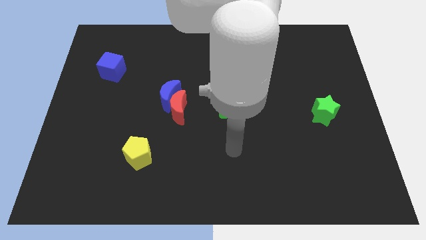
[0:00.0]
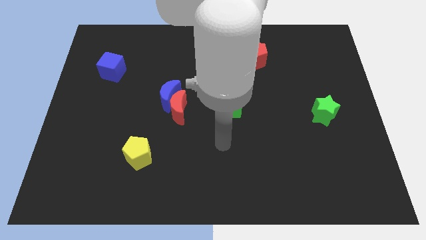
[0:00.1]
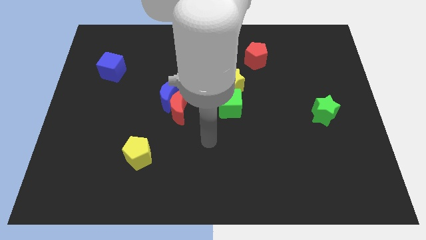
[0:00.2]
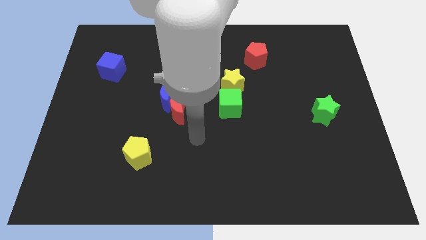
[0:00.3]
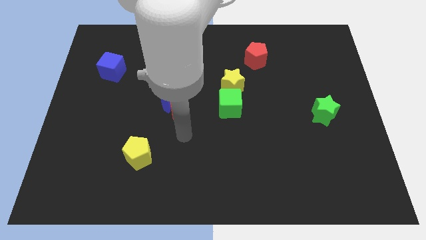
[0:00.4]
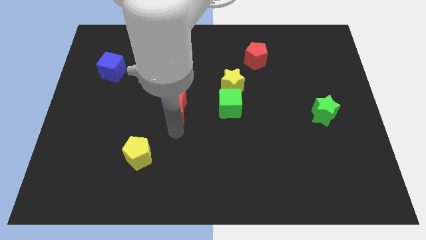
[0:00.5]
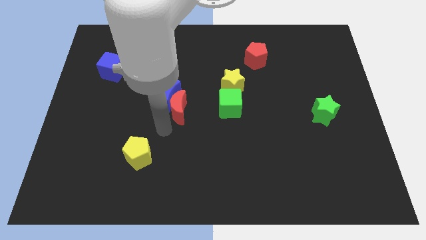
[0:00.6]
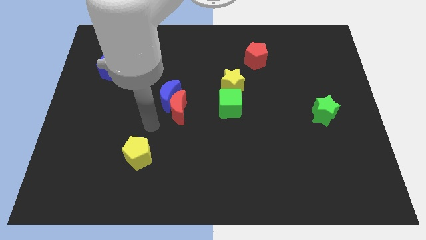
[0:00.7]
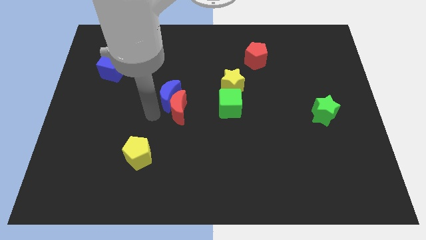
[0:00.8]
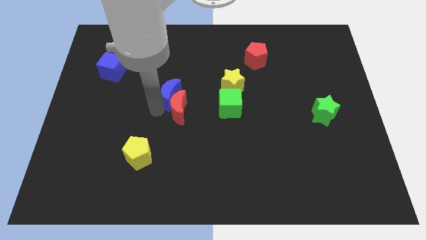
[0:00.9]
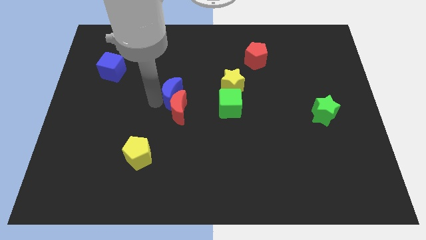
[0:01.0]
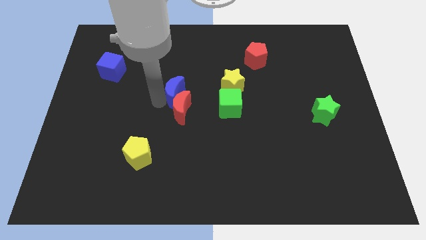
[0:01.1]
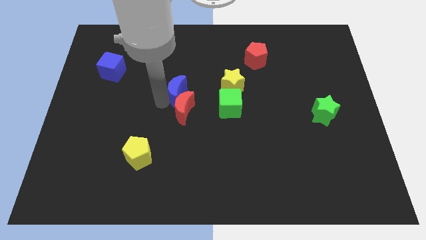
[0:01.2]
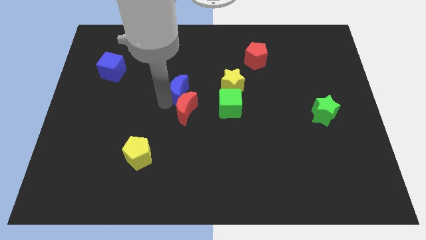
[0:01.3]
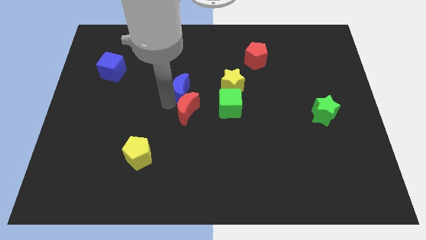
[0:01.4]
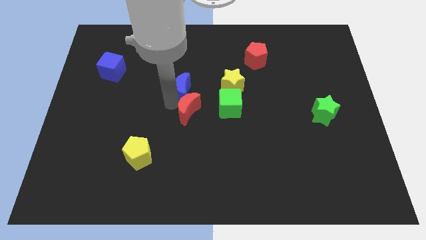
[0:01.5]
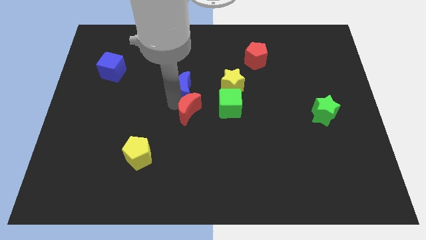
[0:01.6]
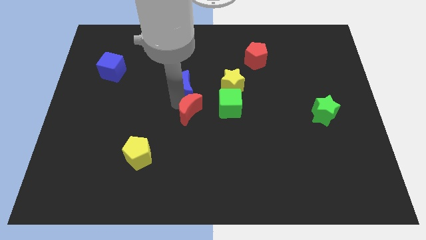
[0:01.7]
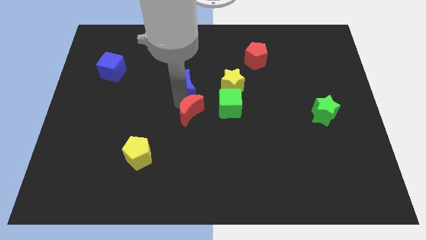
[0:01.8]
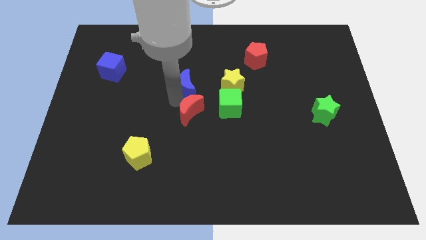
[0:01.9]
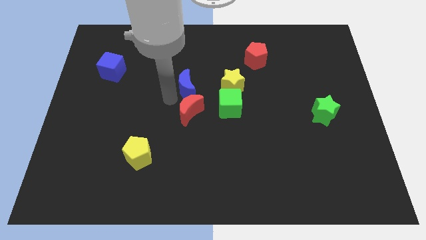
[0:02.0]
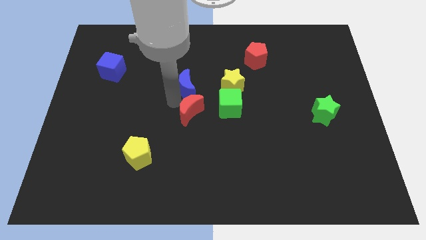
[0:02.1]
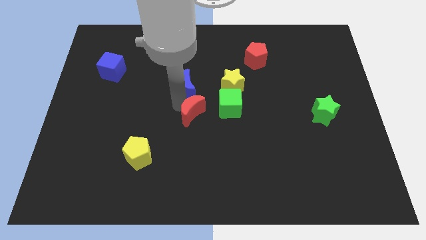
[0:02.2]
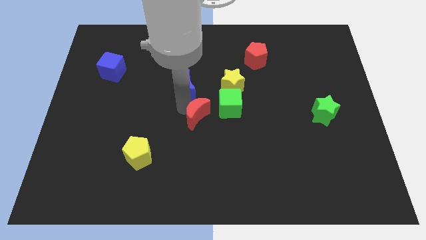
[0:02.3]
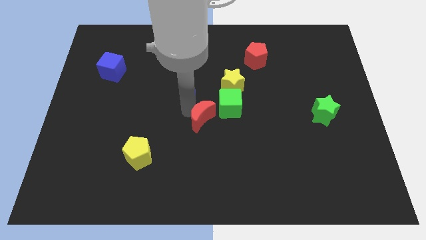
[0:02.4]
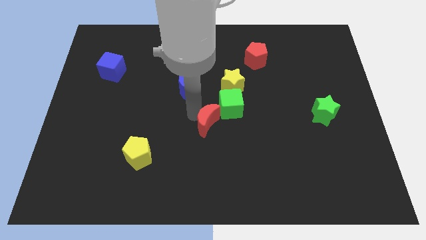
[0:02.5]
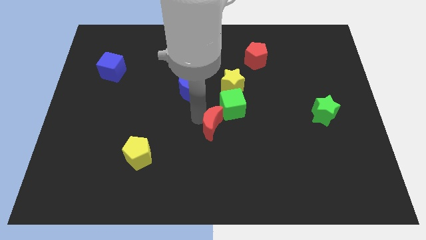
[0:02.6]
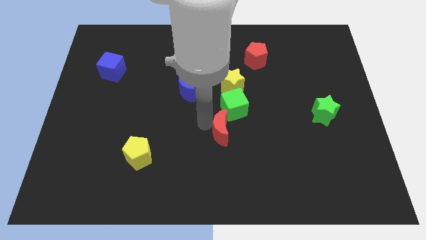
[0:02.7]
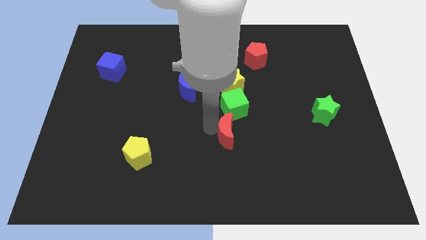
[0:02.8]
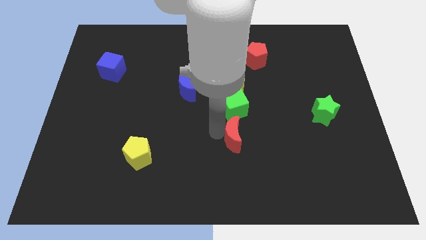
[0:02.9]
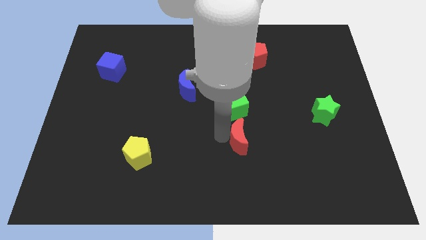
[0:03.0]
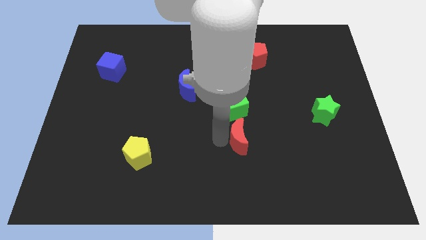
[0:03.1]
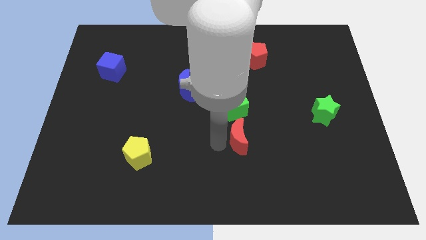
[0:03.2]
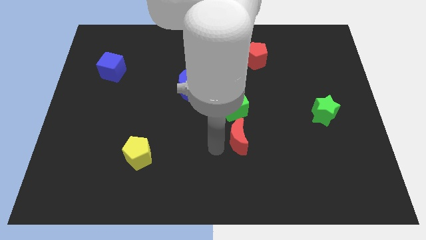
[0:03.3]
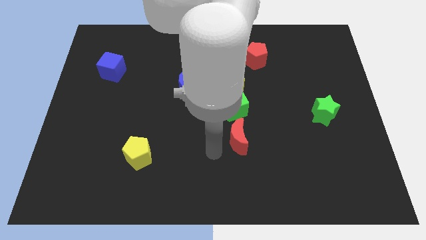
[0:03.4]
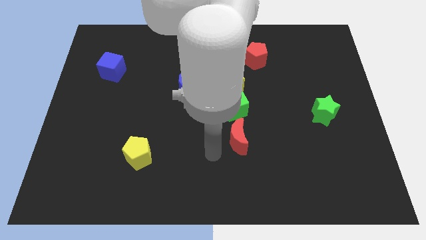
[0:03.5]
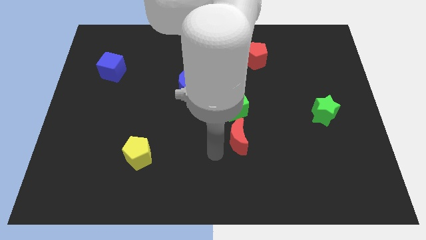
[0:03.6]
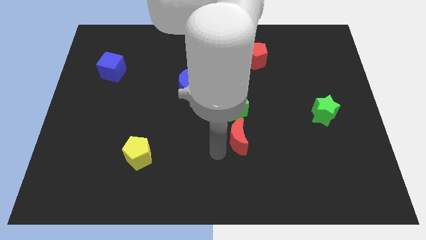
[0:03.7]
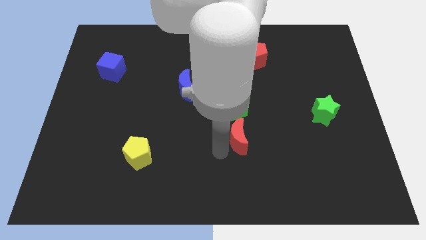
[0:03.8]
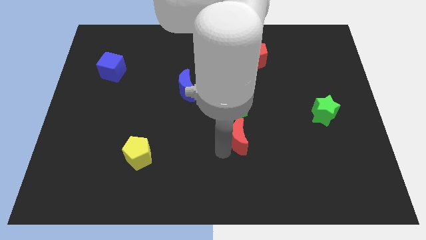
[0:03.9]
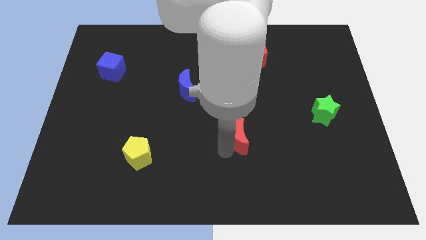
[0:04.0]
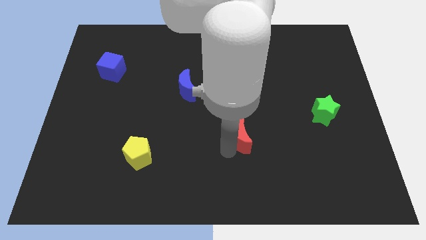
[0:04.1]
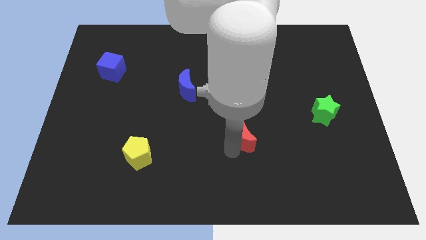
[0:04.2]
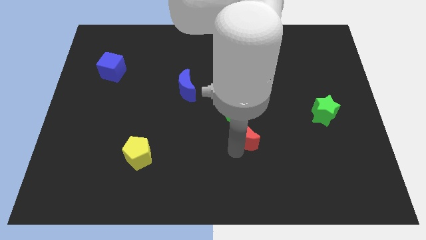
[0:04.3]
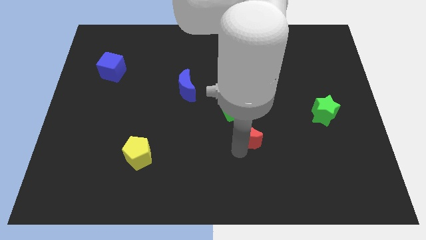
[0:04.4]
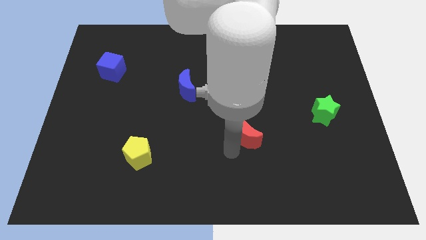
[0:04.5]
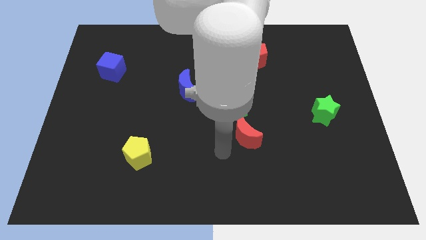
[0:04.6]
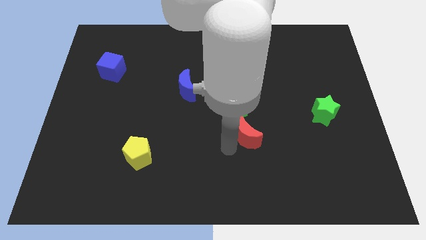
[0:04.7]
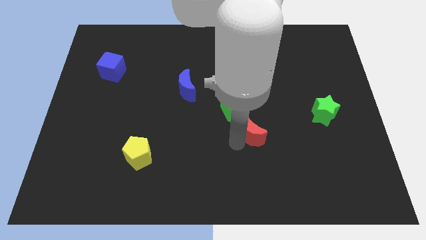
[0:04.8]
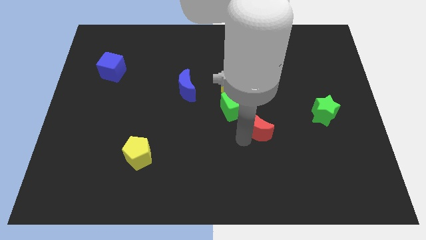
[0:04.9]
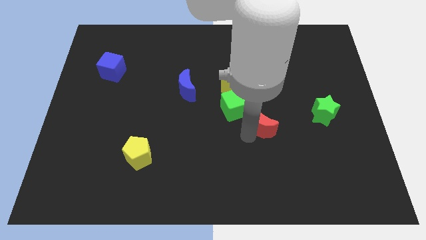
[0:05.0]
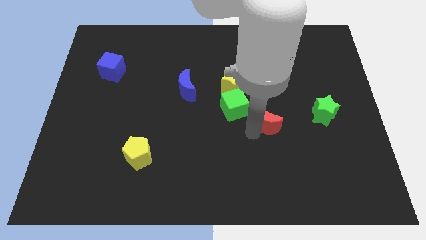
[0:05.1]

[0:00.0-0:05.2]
slide the red moon to the right of the green cube

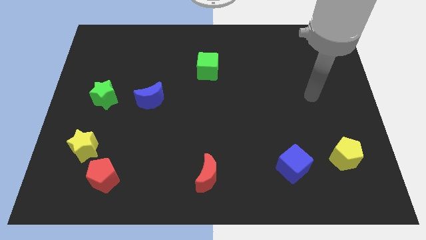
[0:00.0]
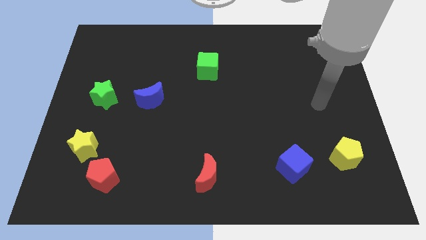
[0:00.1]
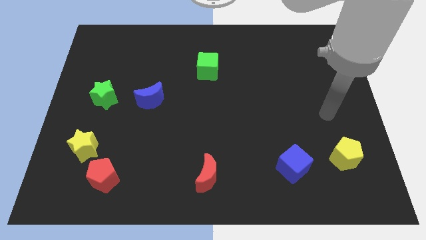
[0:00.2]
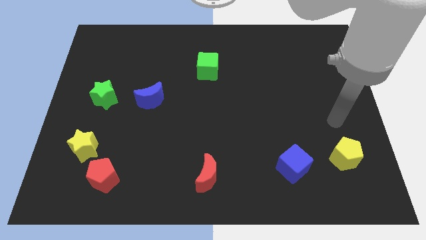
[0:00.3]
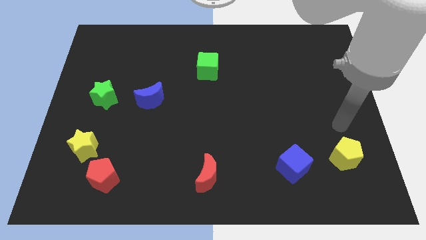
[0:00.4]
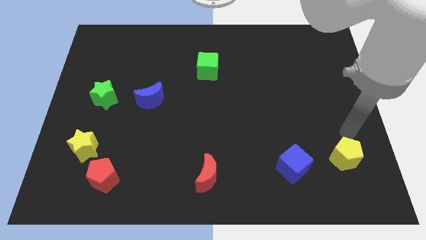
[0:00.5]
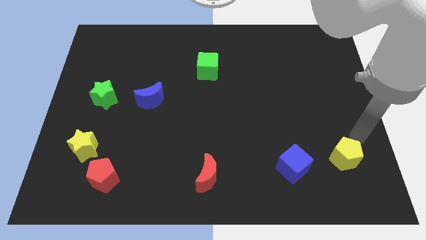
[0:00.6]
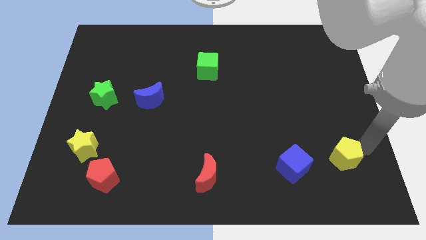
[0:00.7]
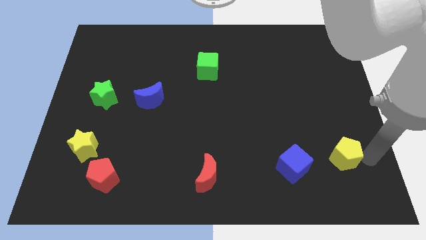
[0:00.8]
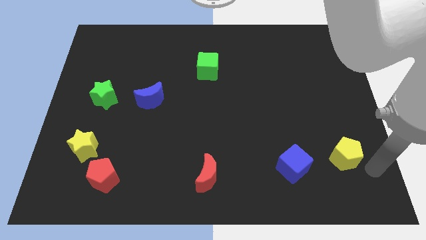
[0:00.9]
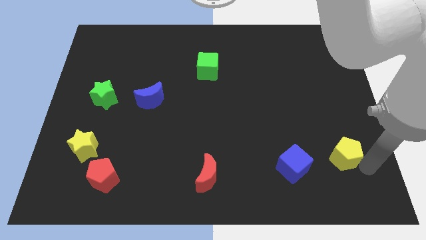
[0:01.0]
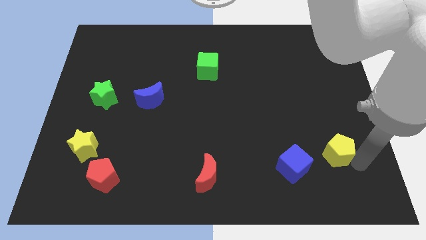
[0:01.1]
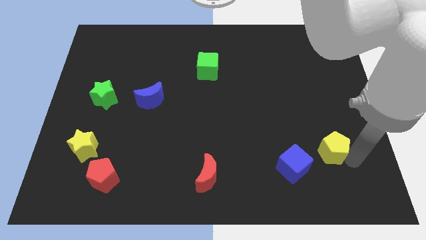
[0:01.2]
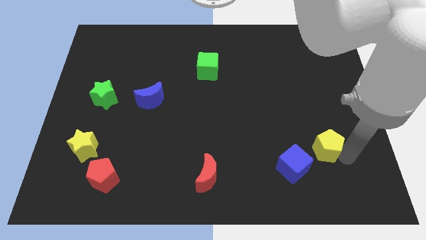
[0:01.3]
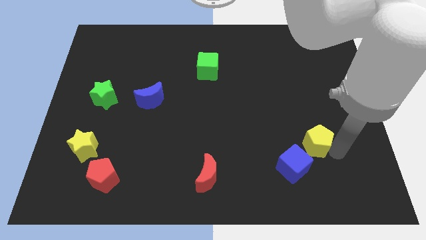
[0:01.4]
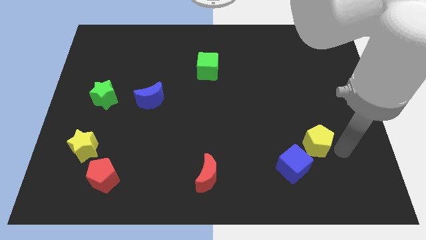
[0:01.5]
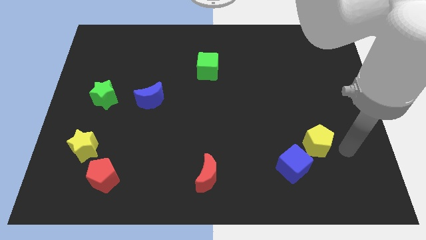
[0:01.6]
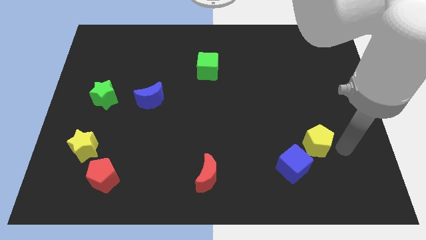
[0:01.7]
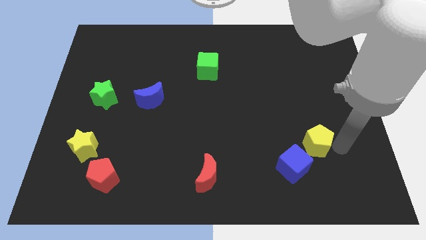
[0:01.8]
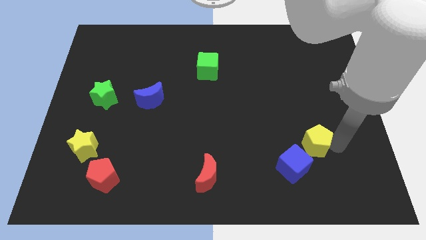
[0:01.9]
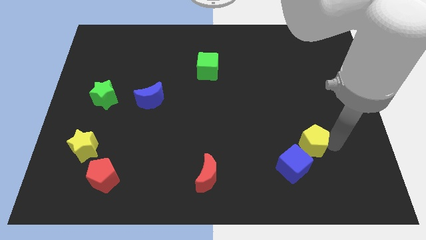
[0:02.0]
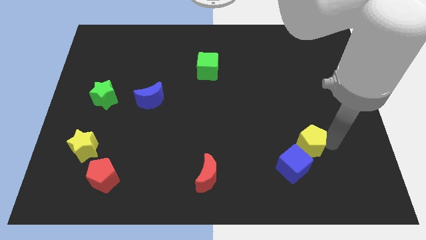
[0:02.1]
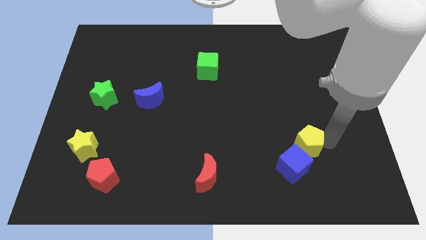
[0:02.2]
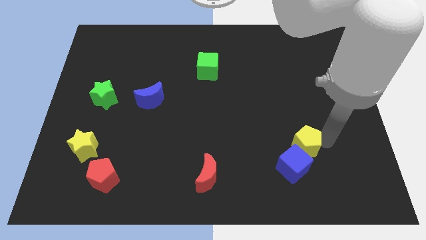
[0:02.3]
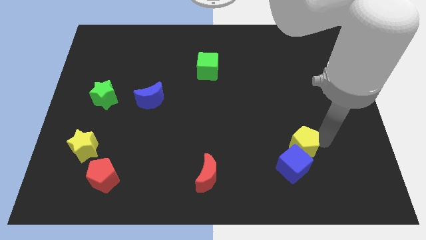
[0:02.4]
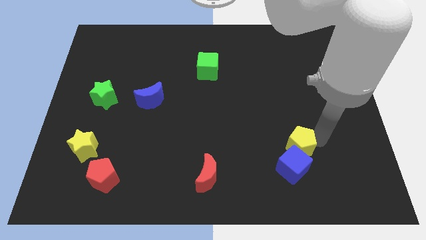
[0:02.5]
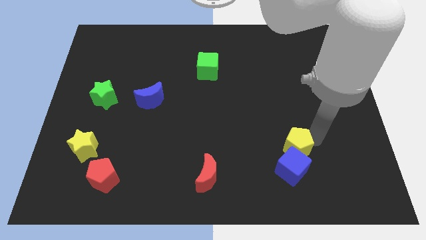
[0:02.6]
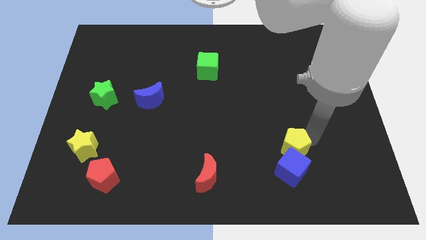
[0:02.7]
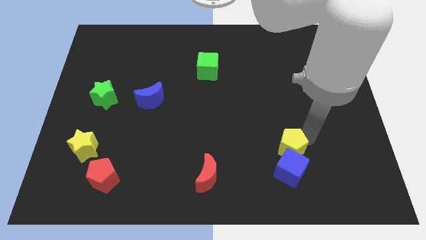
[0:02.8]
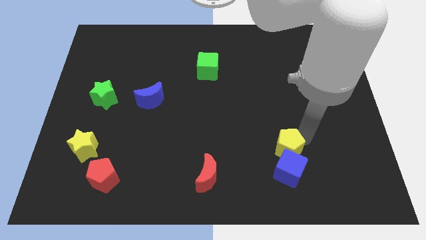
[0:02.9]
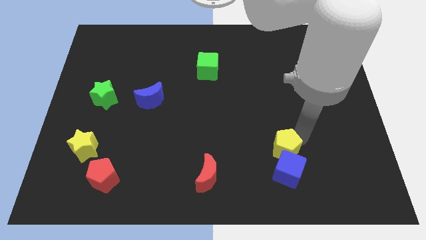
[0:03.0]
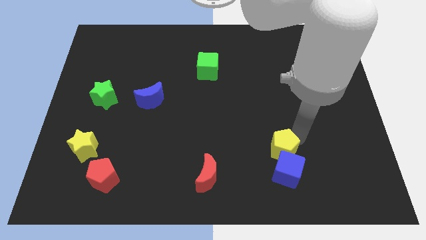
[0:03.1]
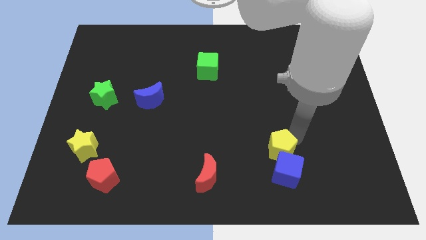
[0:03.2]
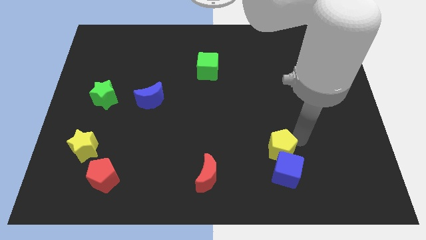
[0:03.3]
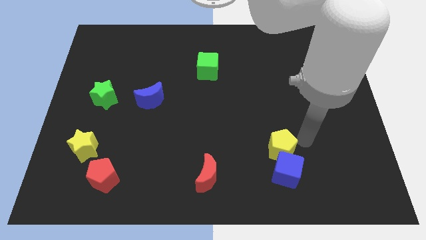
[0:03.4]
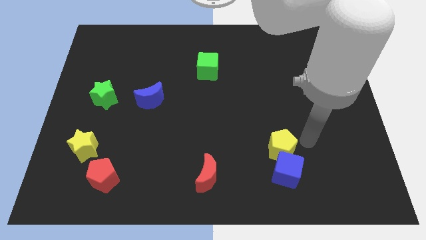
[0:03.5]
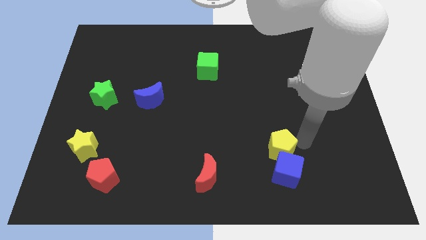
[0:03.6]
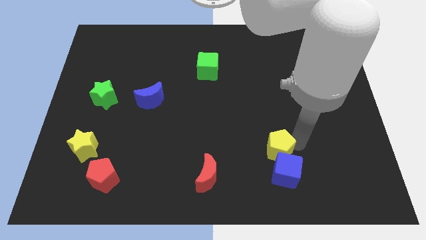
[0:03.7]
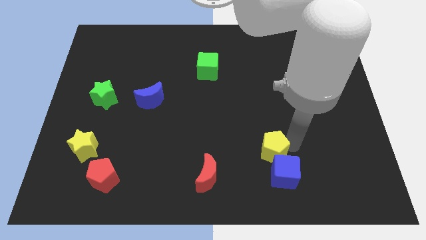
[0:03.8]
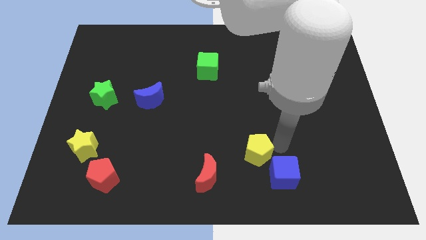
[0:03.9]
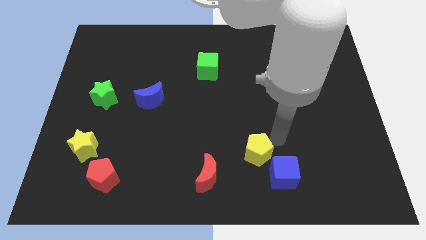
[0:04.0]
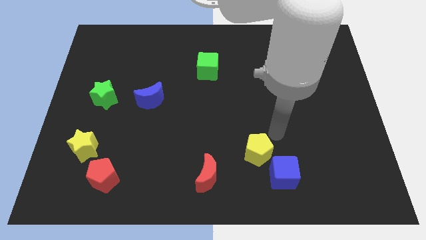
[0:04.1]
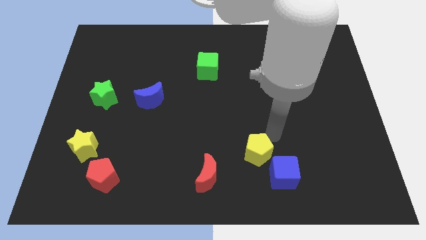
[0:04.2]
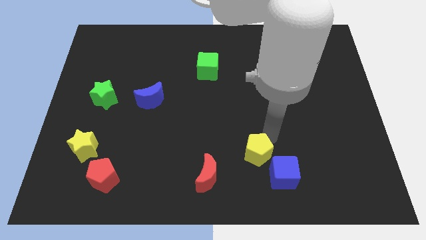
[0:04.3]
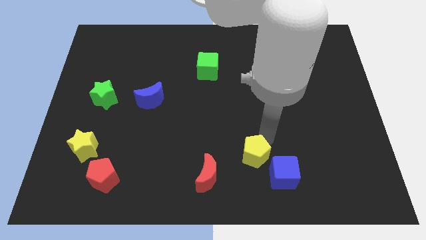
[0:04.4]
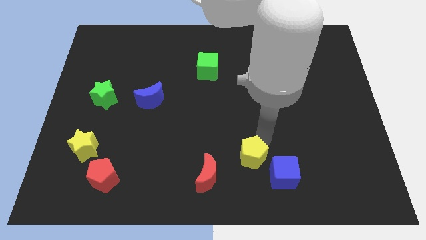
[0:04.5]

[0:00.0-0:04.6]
move the yellow pentagon just left of the blue cube
